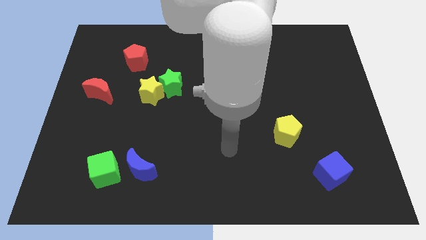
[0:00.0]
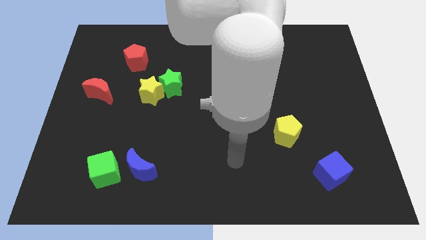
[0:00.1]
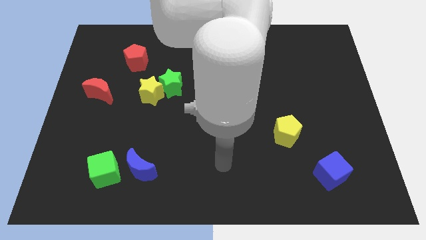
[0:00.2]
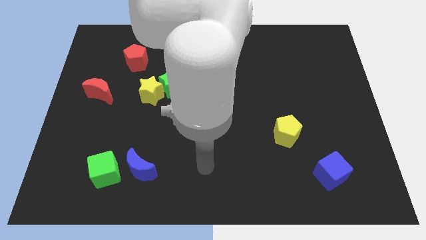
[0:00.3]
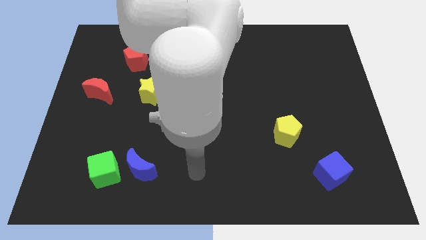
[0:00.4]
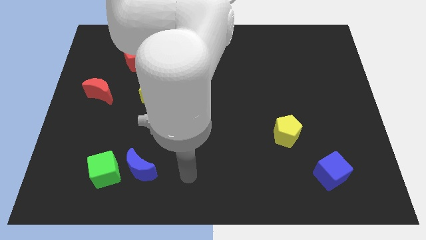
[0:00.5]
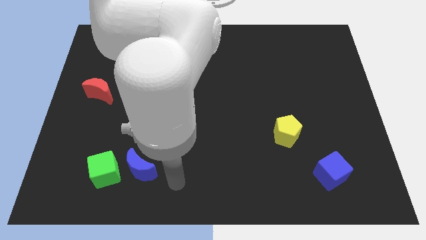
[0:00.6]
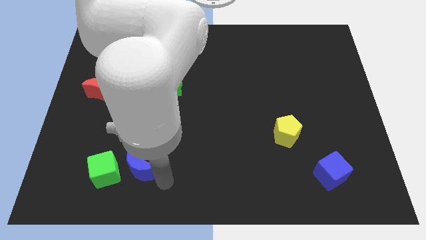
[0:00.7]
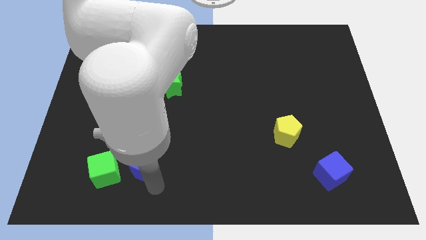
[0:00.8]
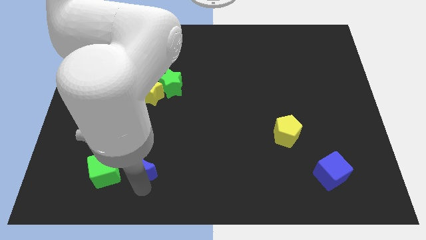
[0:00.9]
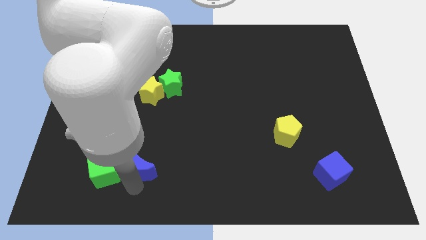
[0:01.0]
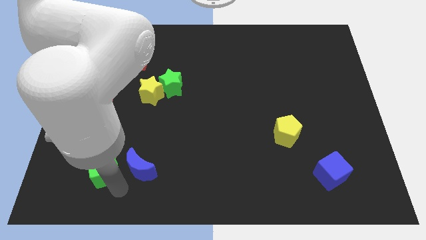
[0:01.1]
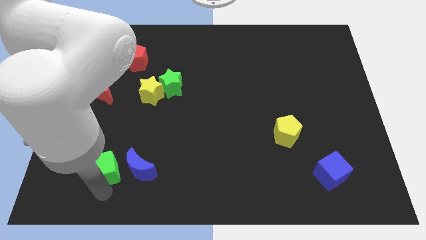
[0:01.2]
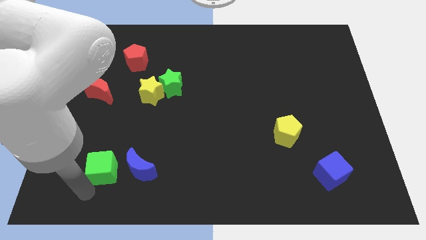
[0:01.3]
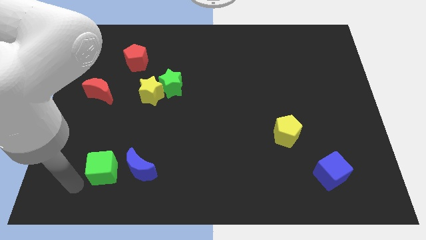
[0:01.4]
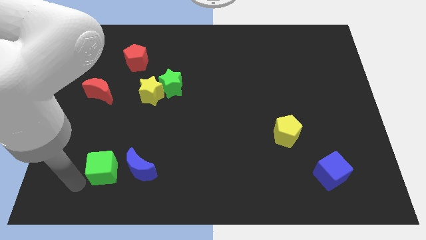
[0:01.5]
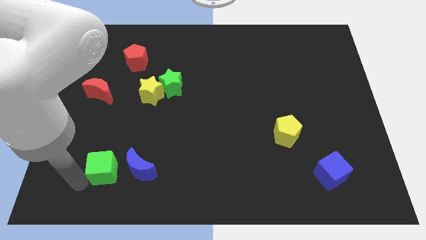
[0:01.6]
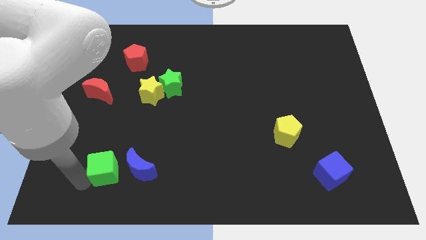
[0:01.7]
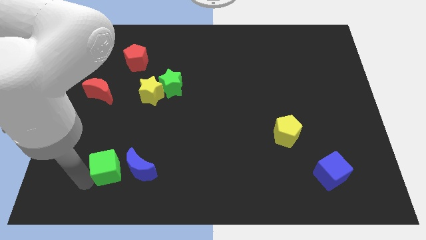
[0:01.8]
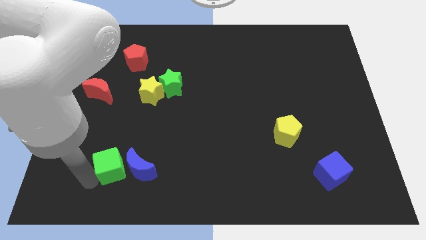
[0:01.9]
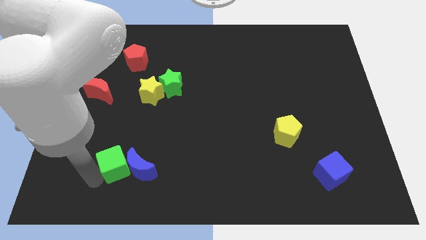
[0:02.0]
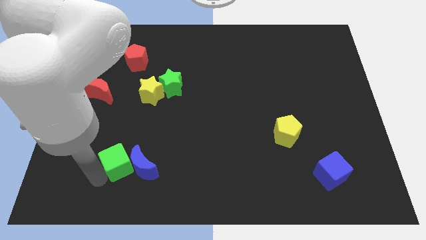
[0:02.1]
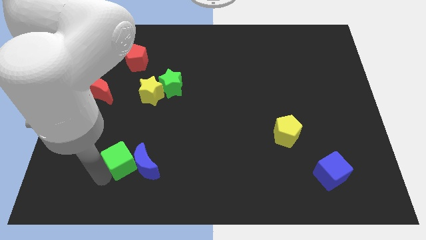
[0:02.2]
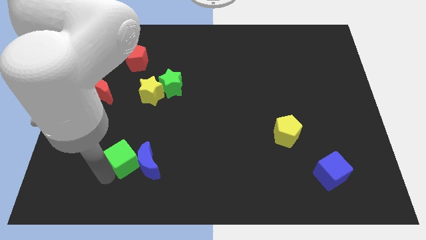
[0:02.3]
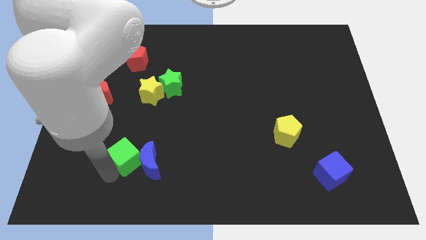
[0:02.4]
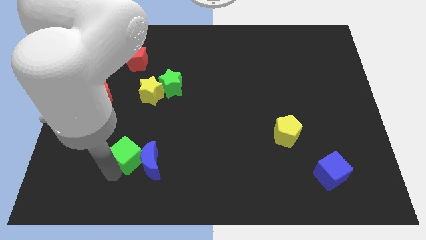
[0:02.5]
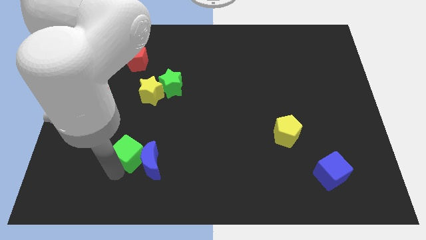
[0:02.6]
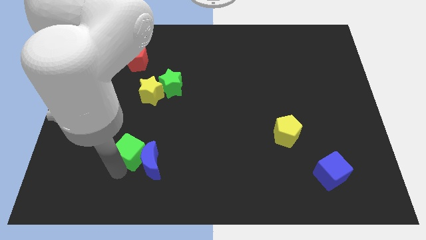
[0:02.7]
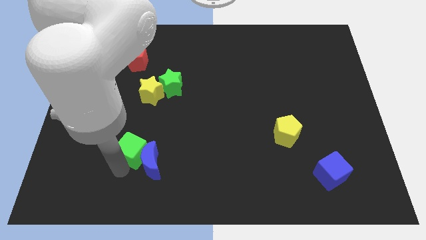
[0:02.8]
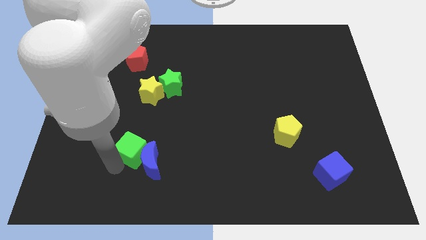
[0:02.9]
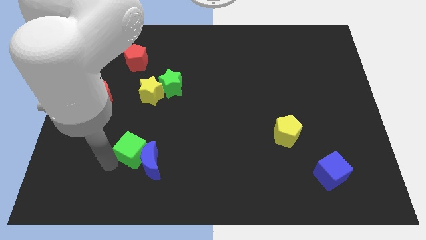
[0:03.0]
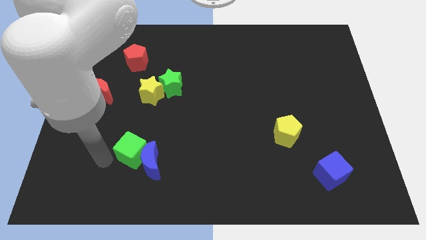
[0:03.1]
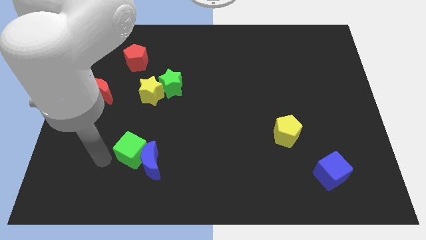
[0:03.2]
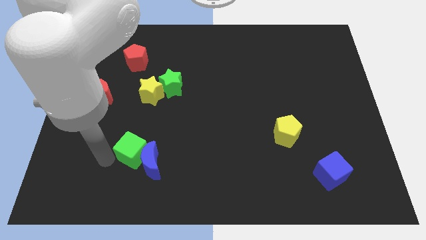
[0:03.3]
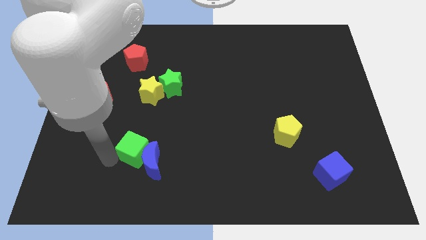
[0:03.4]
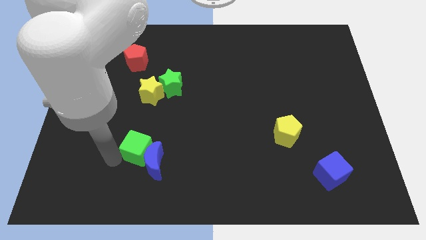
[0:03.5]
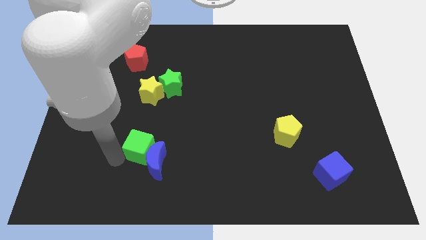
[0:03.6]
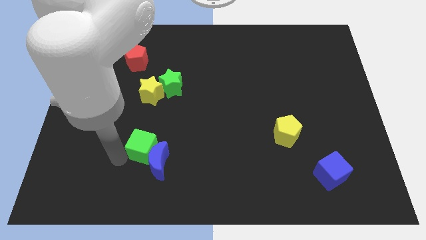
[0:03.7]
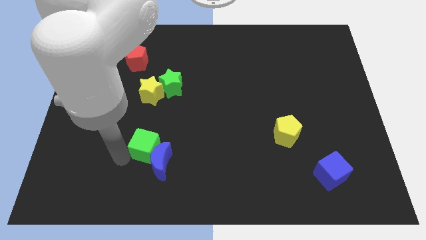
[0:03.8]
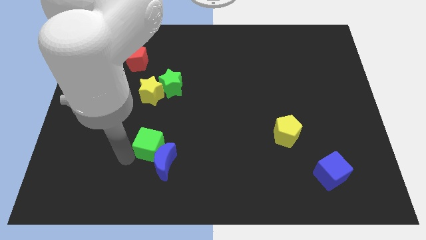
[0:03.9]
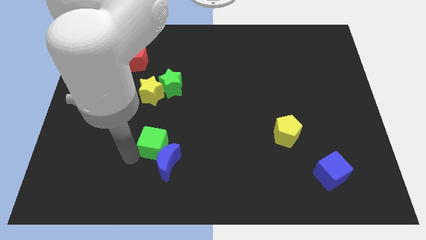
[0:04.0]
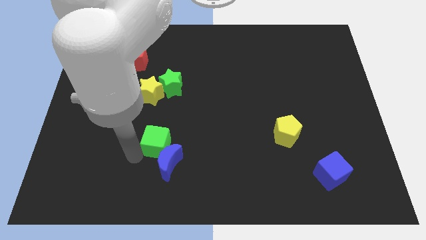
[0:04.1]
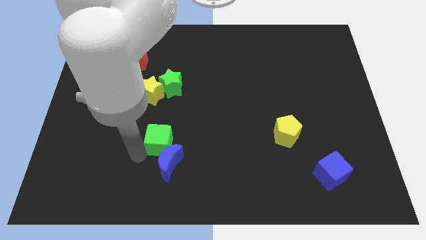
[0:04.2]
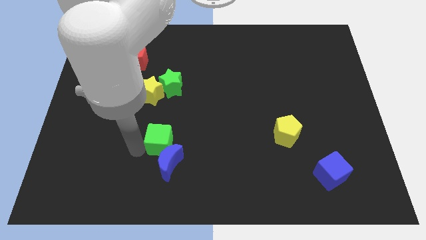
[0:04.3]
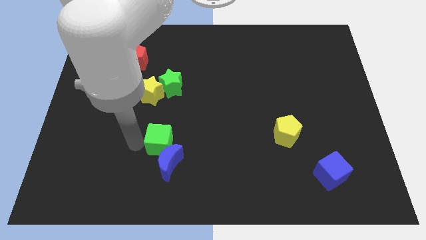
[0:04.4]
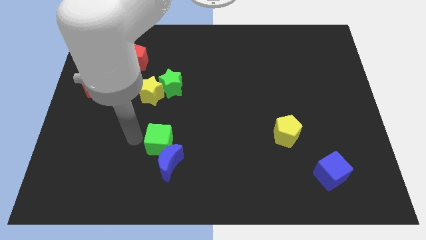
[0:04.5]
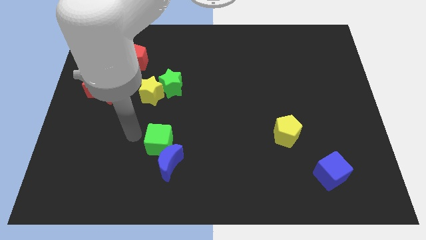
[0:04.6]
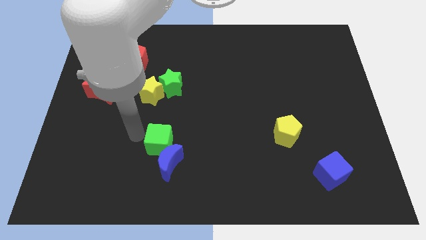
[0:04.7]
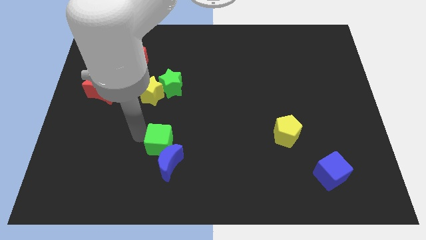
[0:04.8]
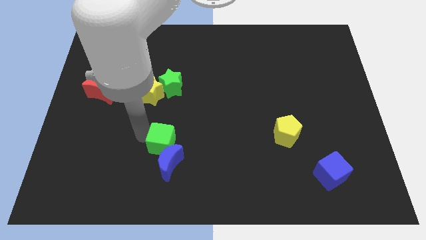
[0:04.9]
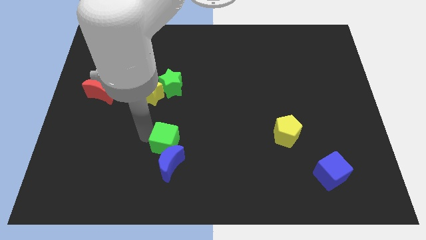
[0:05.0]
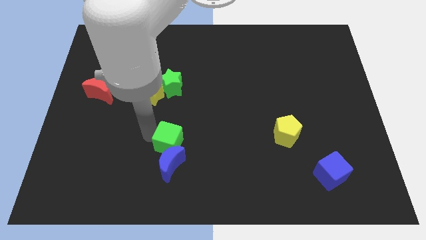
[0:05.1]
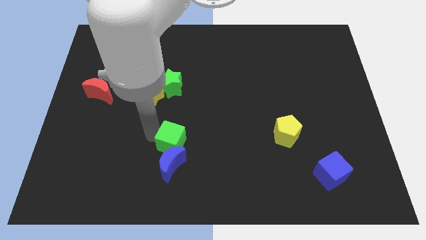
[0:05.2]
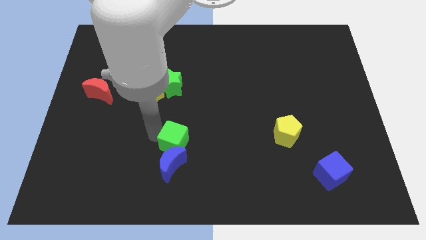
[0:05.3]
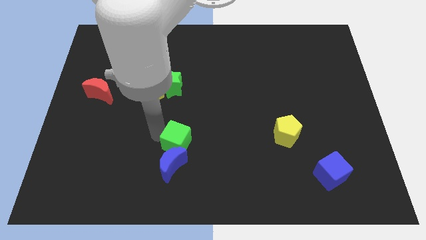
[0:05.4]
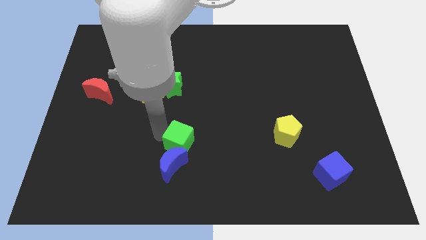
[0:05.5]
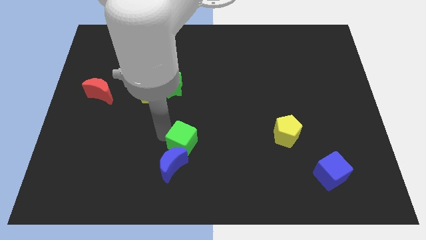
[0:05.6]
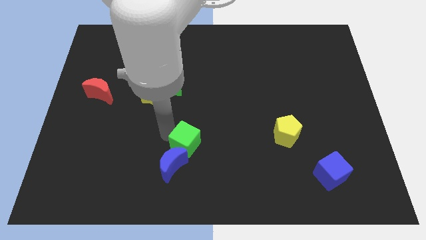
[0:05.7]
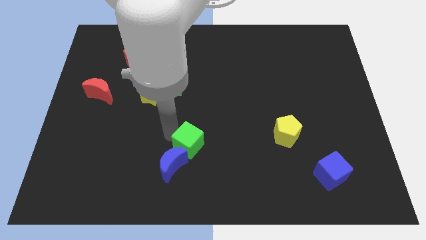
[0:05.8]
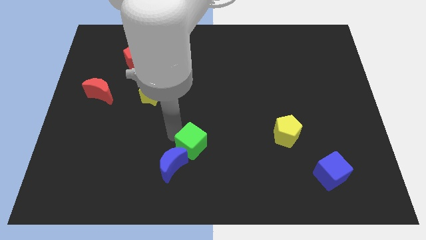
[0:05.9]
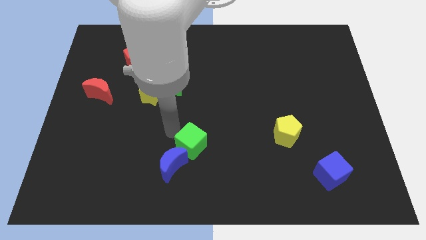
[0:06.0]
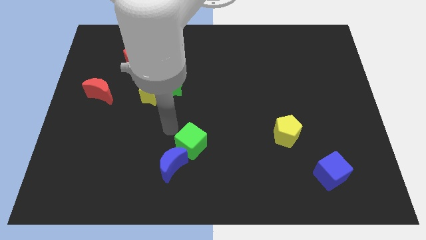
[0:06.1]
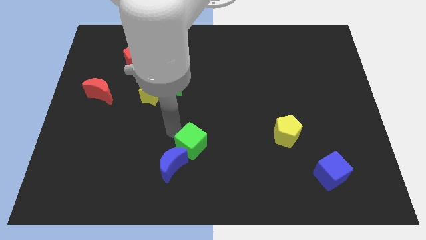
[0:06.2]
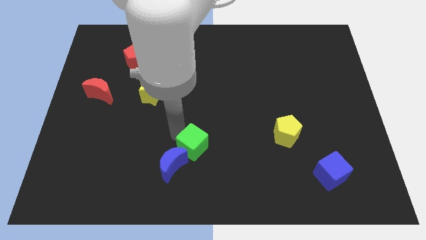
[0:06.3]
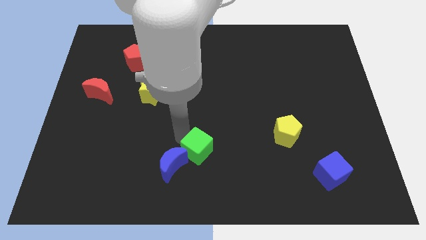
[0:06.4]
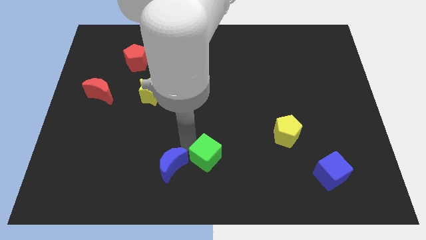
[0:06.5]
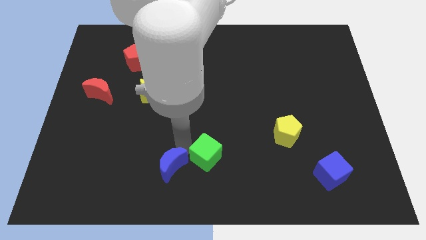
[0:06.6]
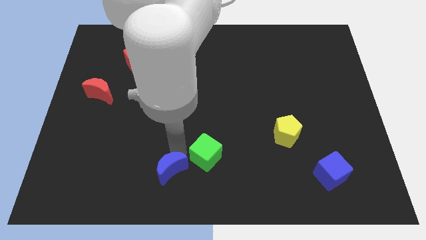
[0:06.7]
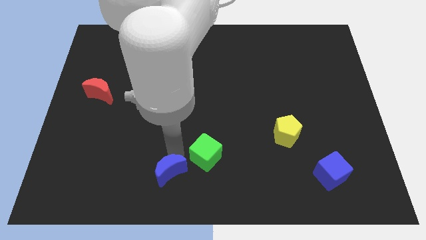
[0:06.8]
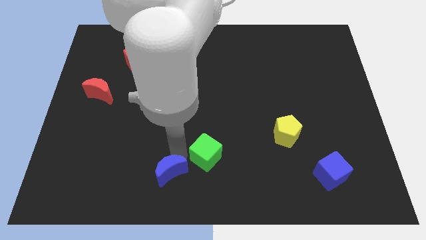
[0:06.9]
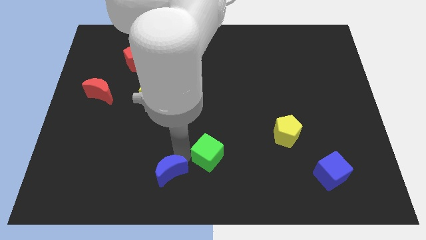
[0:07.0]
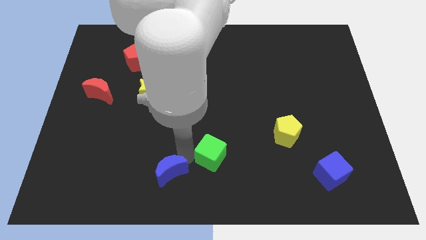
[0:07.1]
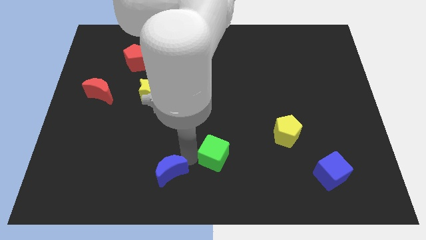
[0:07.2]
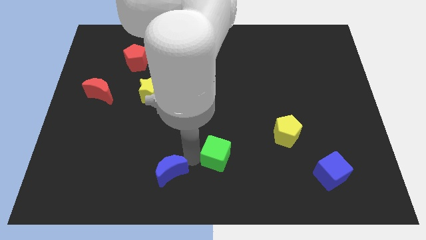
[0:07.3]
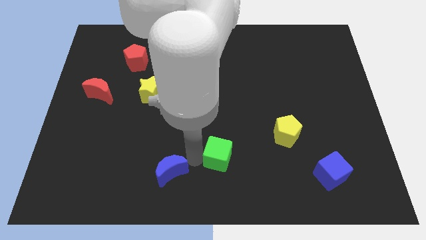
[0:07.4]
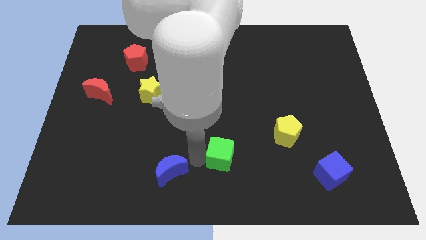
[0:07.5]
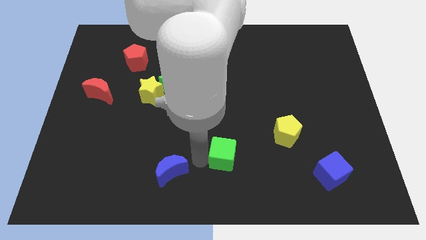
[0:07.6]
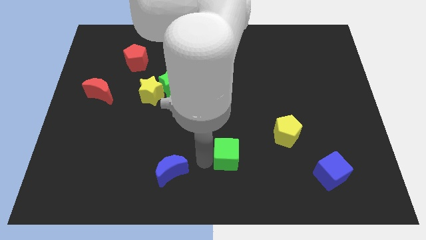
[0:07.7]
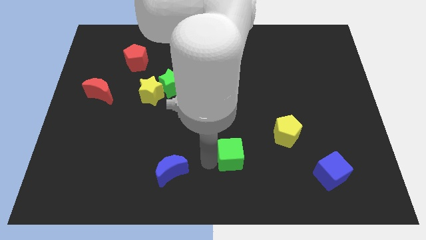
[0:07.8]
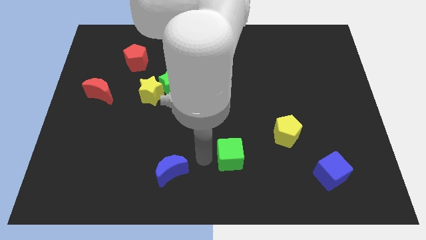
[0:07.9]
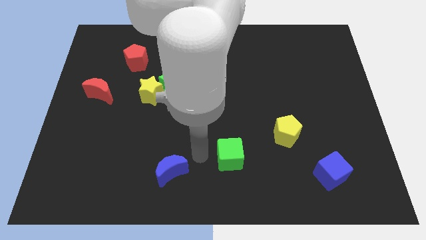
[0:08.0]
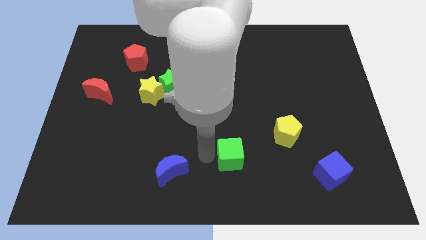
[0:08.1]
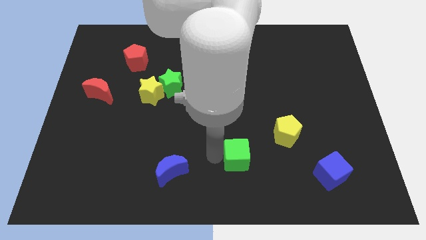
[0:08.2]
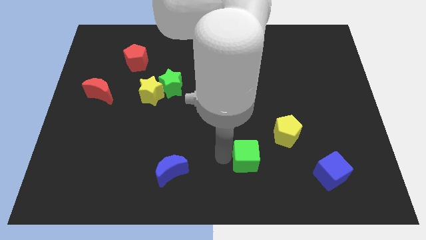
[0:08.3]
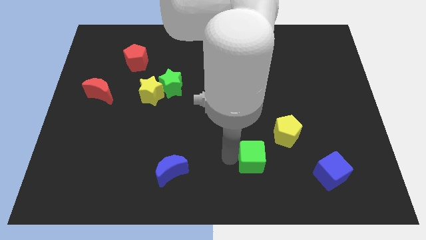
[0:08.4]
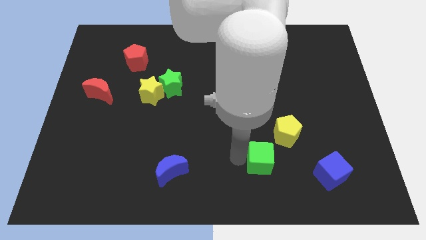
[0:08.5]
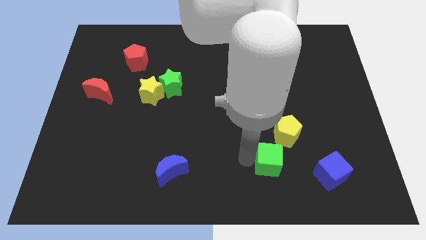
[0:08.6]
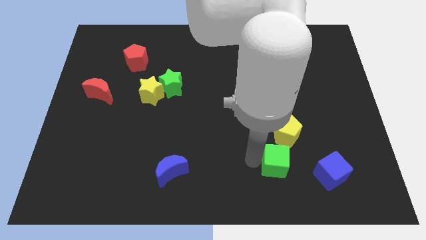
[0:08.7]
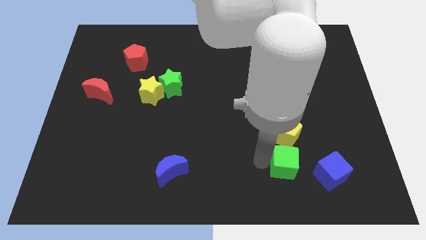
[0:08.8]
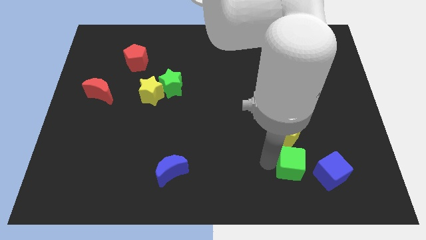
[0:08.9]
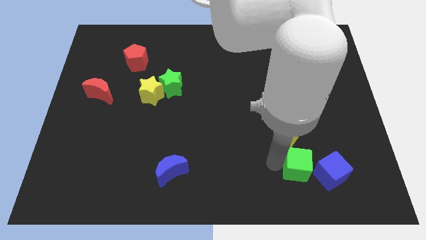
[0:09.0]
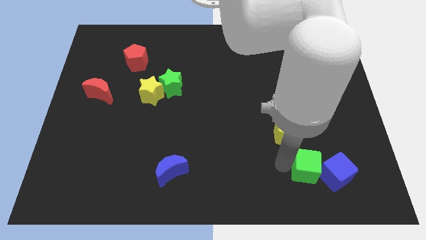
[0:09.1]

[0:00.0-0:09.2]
move the green cube towards the blue cube
